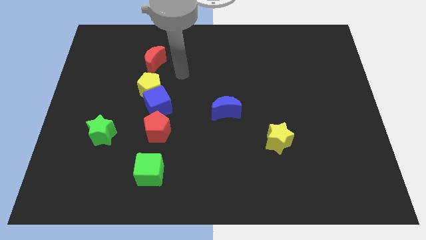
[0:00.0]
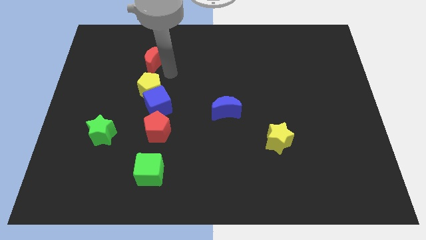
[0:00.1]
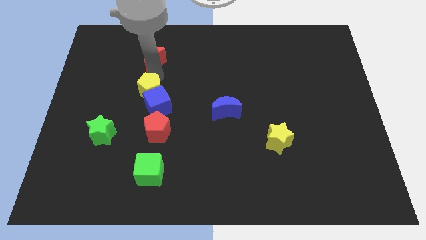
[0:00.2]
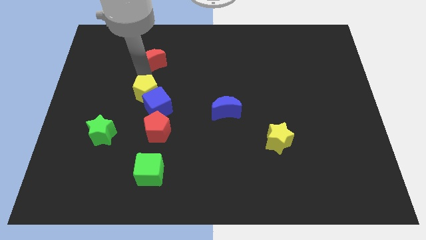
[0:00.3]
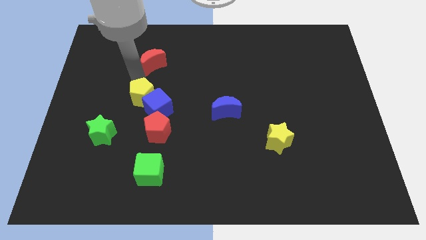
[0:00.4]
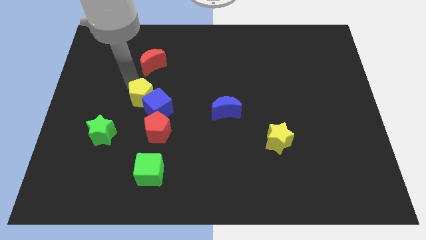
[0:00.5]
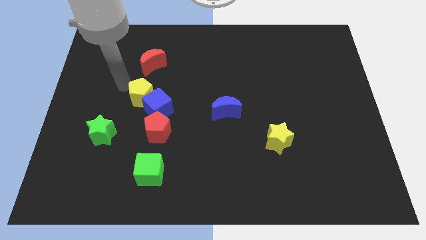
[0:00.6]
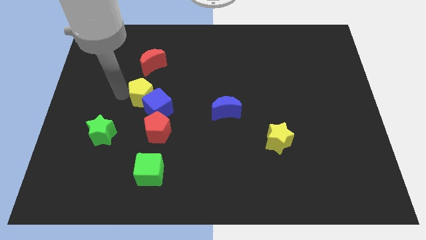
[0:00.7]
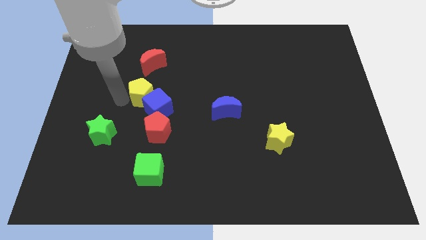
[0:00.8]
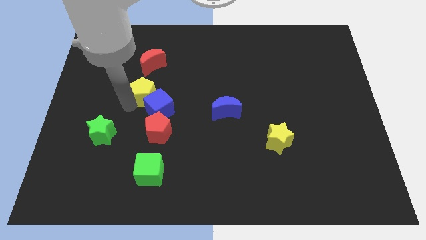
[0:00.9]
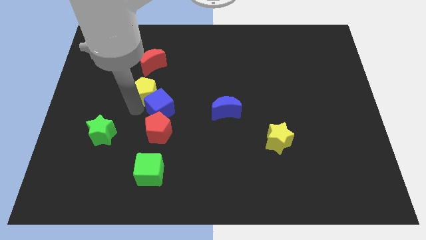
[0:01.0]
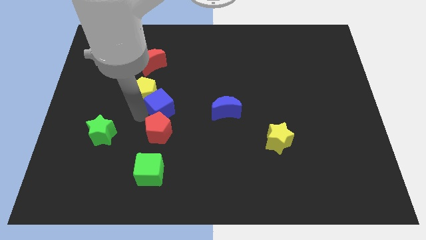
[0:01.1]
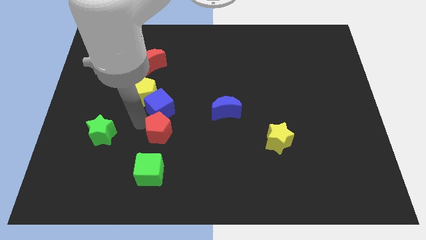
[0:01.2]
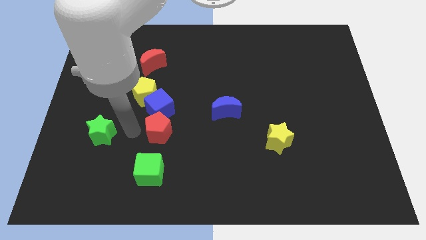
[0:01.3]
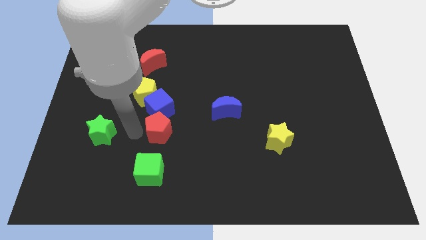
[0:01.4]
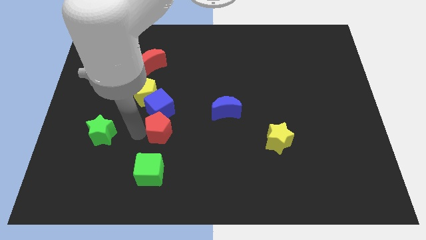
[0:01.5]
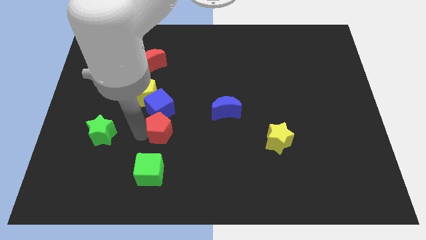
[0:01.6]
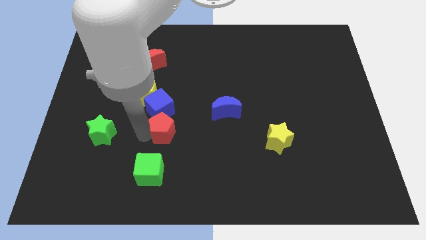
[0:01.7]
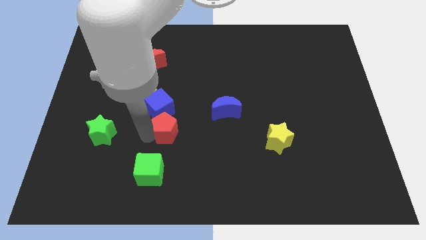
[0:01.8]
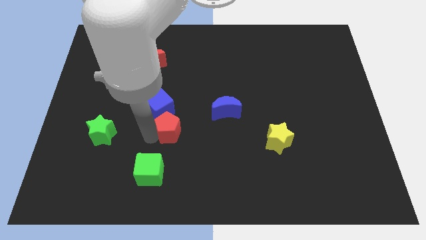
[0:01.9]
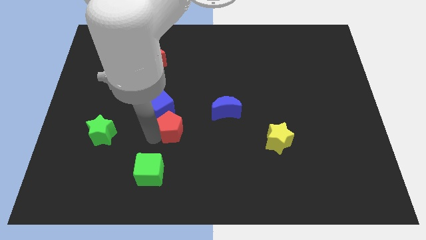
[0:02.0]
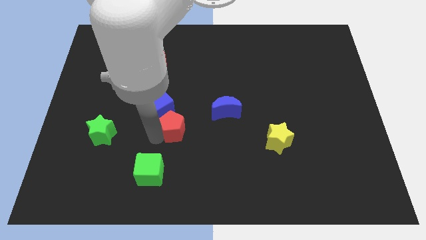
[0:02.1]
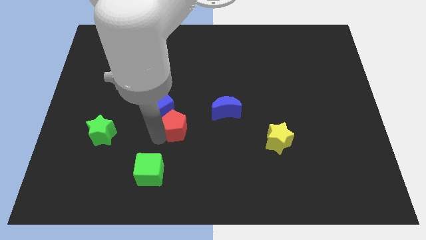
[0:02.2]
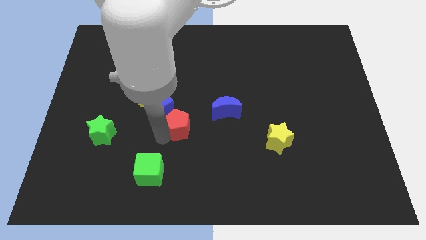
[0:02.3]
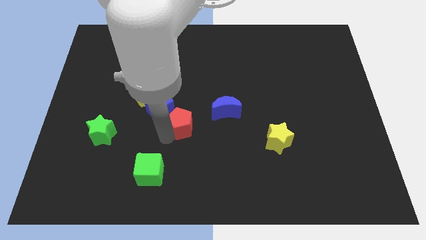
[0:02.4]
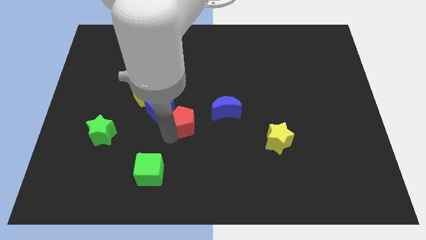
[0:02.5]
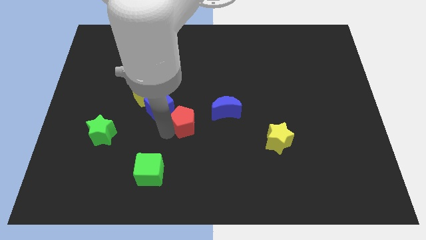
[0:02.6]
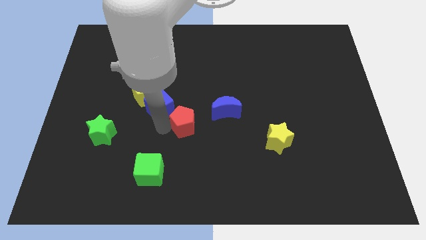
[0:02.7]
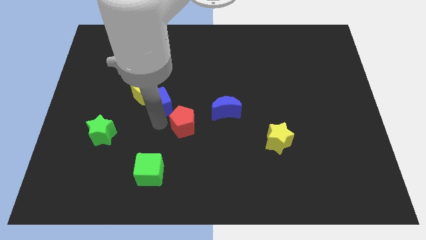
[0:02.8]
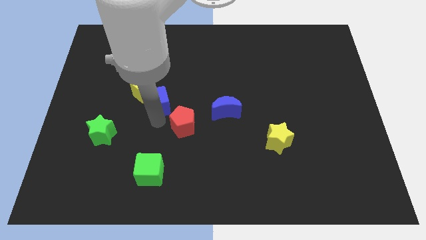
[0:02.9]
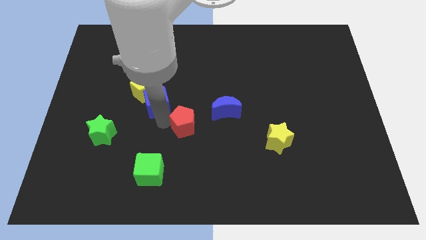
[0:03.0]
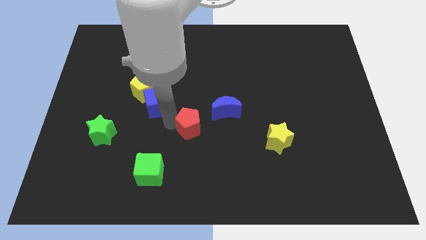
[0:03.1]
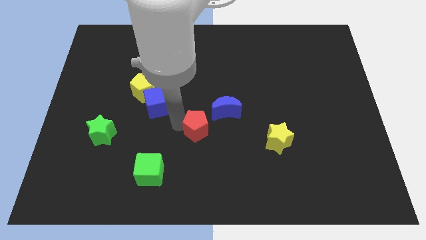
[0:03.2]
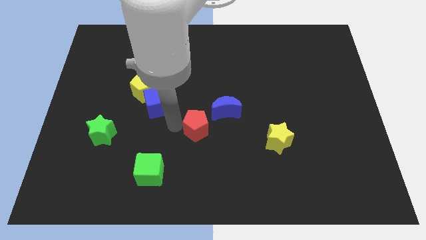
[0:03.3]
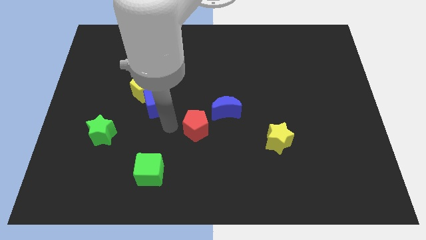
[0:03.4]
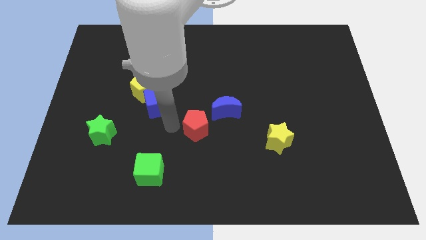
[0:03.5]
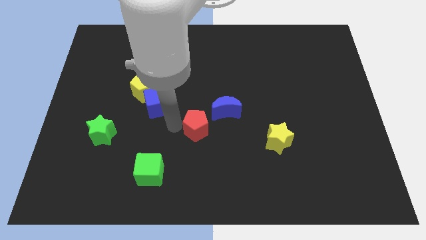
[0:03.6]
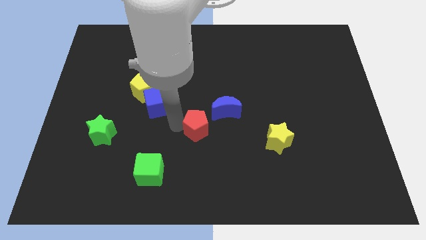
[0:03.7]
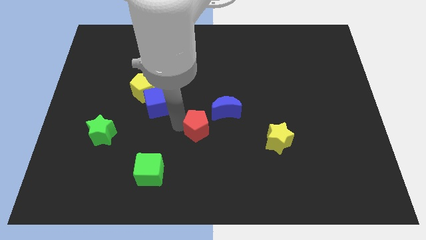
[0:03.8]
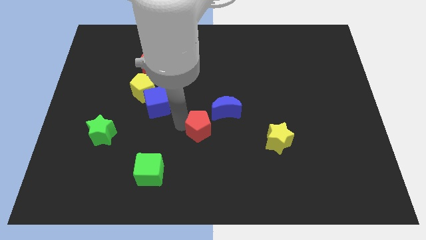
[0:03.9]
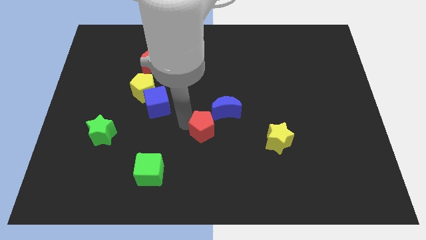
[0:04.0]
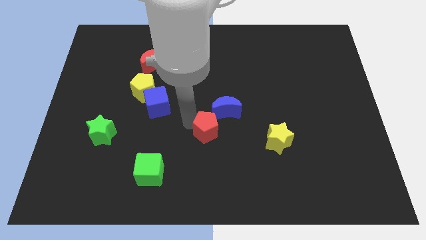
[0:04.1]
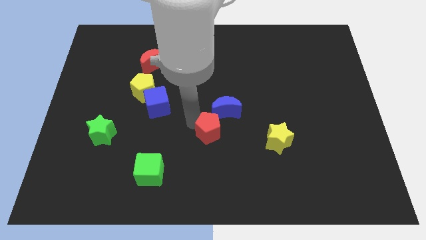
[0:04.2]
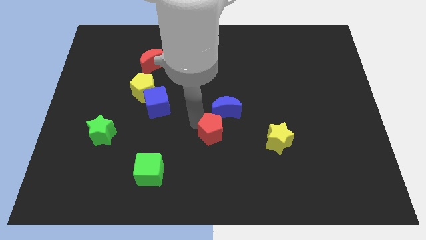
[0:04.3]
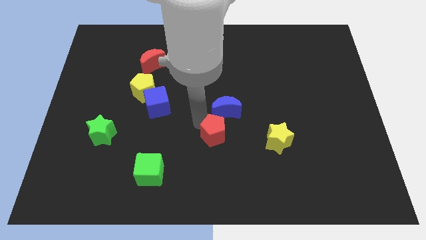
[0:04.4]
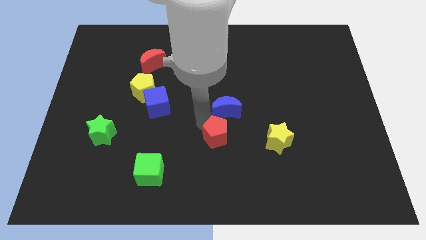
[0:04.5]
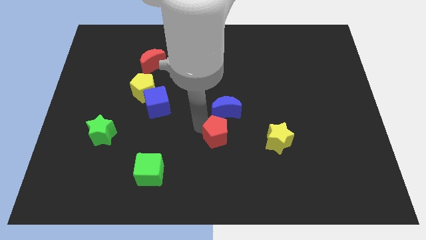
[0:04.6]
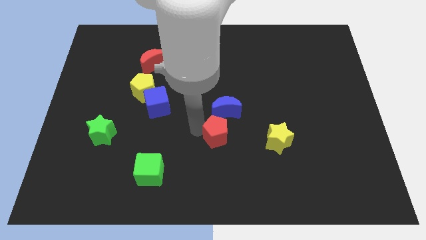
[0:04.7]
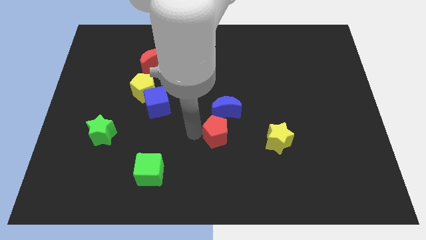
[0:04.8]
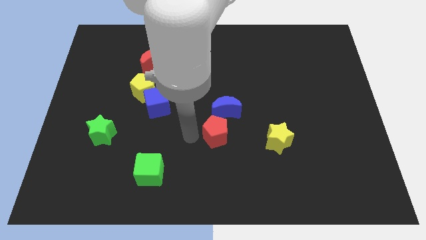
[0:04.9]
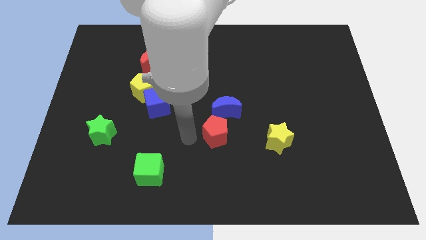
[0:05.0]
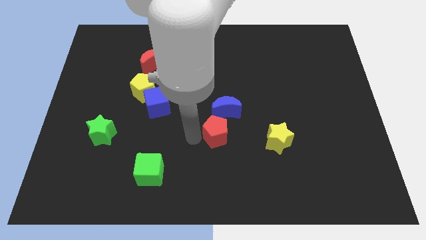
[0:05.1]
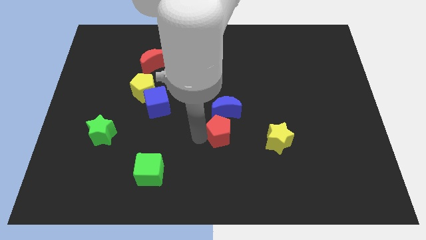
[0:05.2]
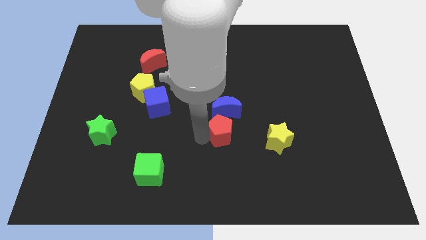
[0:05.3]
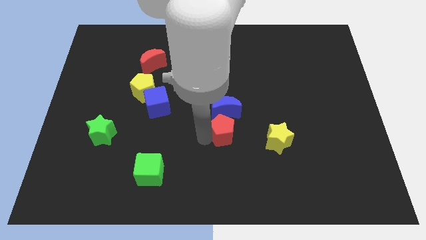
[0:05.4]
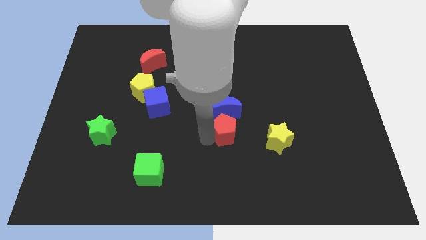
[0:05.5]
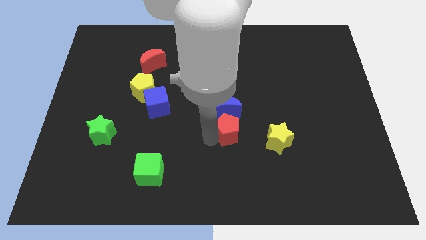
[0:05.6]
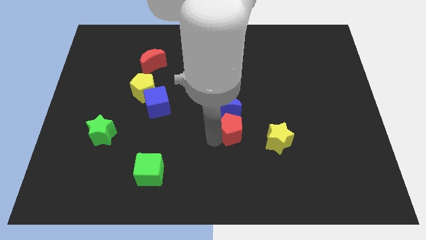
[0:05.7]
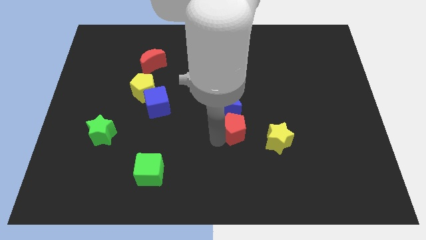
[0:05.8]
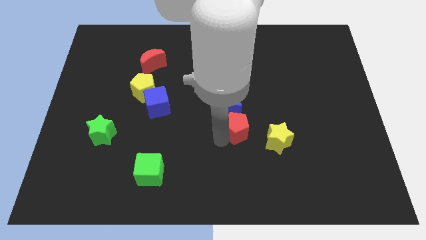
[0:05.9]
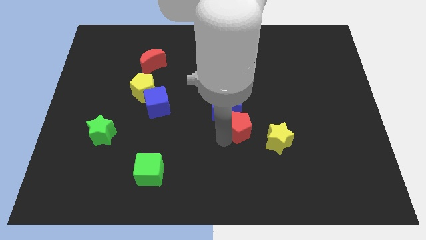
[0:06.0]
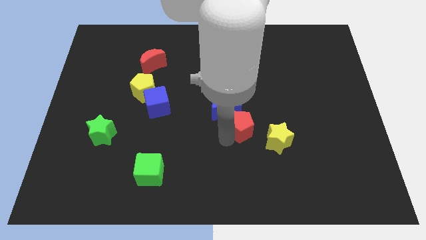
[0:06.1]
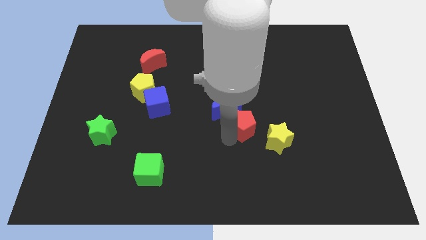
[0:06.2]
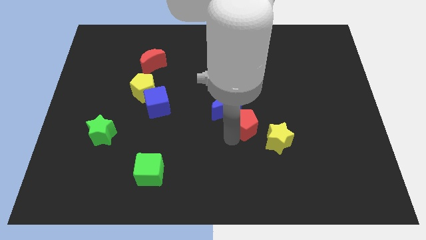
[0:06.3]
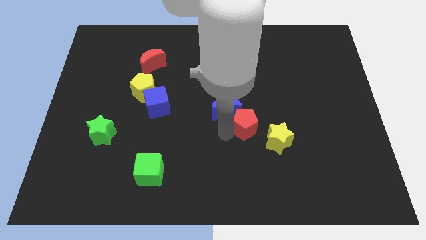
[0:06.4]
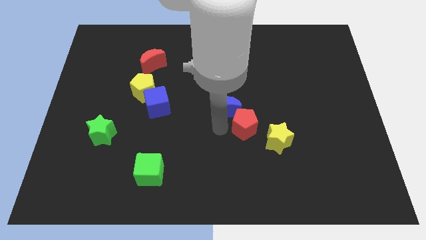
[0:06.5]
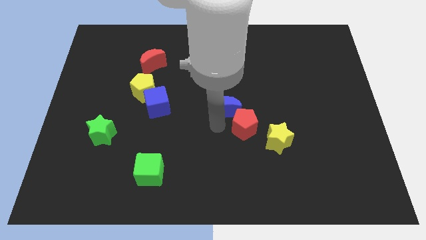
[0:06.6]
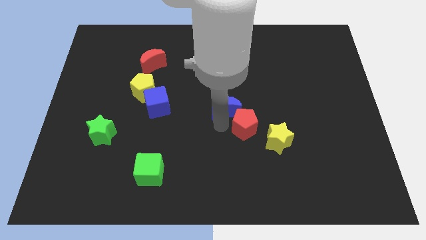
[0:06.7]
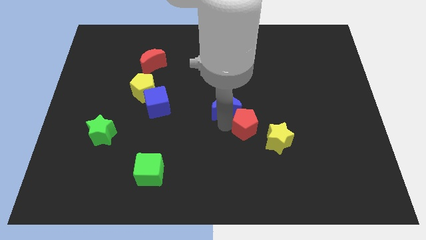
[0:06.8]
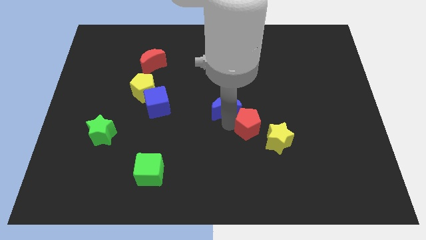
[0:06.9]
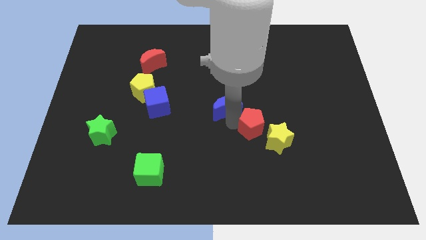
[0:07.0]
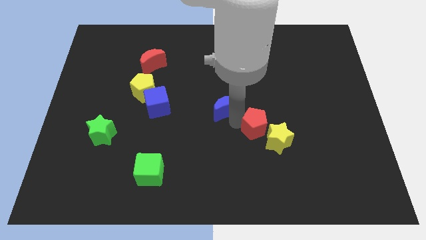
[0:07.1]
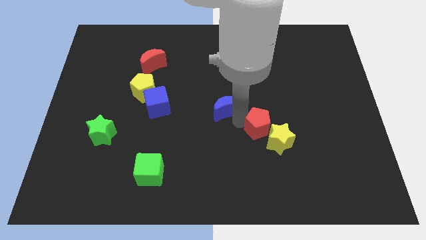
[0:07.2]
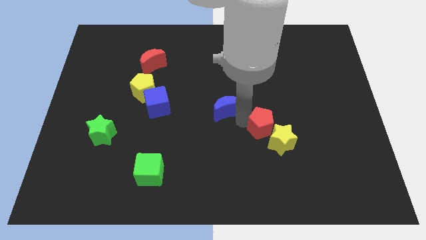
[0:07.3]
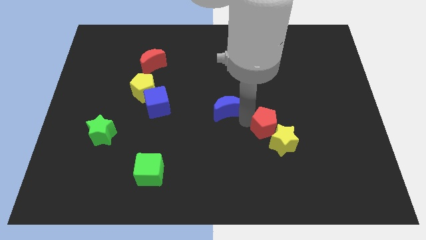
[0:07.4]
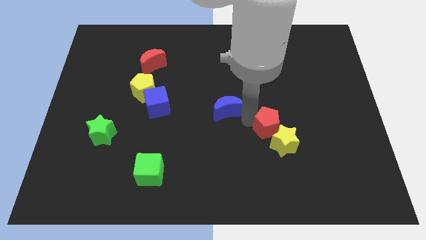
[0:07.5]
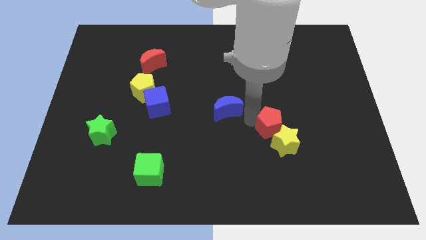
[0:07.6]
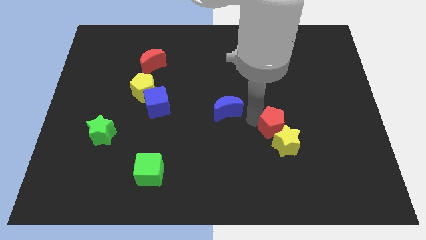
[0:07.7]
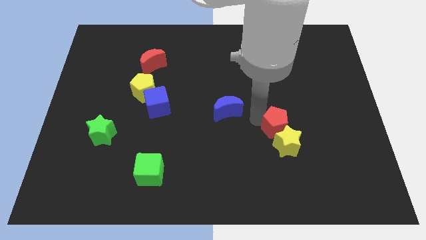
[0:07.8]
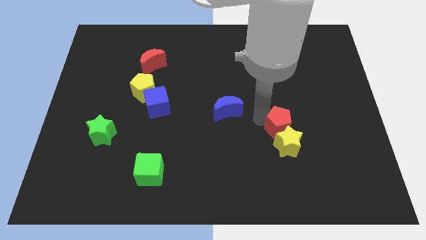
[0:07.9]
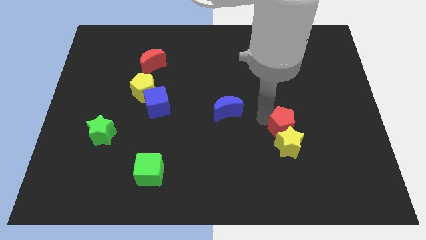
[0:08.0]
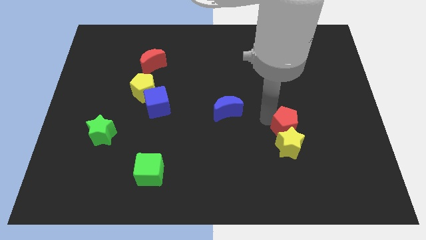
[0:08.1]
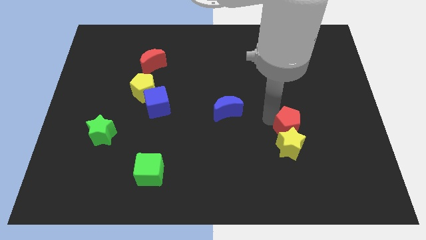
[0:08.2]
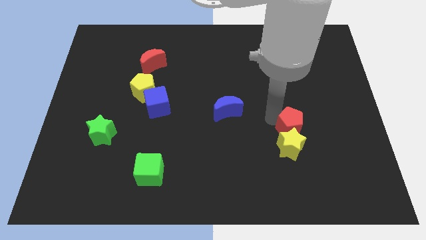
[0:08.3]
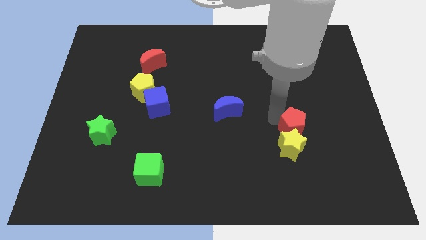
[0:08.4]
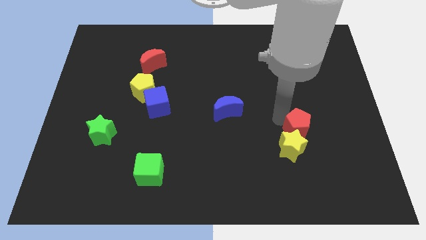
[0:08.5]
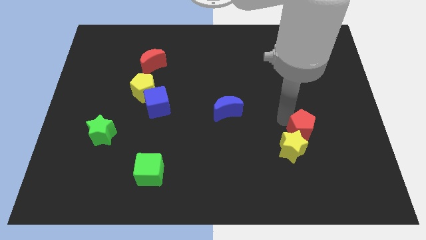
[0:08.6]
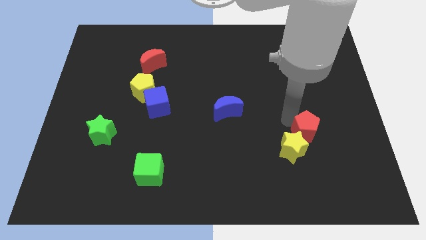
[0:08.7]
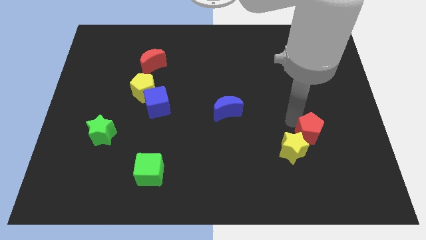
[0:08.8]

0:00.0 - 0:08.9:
push the red pentagon to the right side of the yellow star
